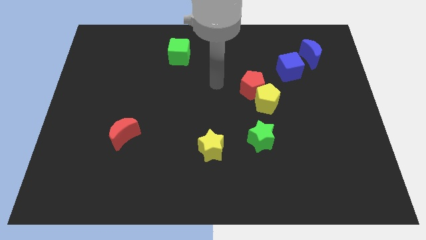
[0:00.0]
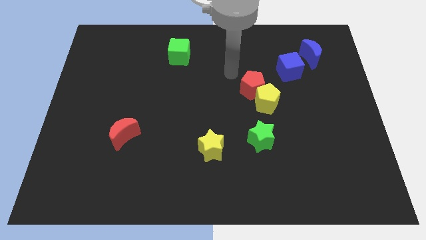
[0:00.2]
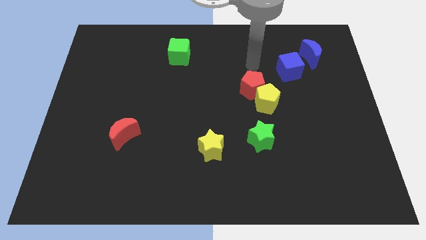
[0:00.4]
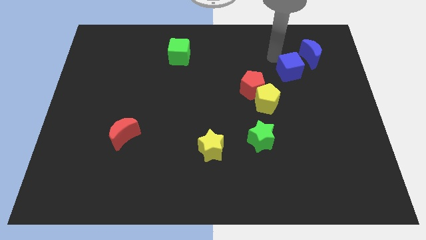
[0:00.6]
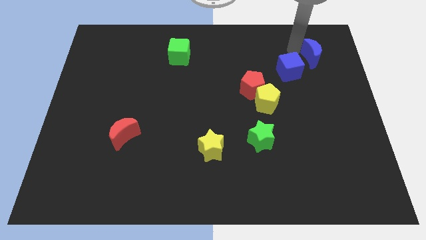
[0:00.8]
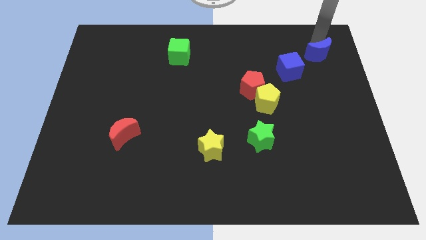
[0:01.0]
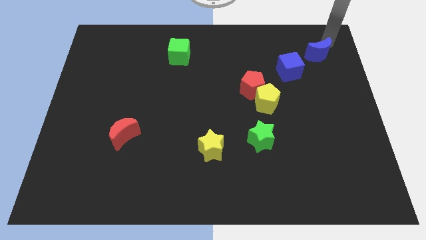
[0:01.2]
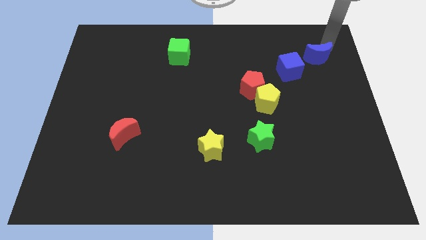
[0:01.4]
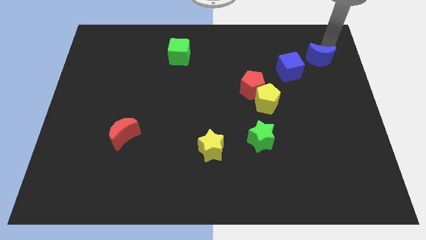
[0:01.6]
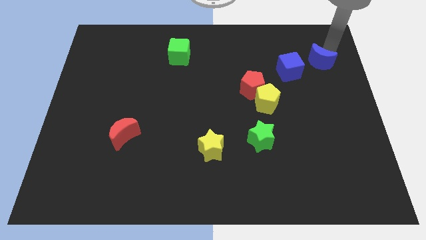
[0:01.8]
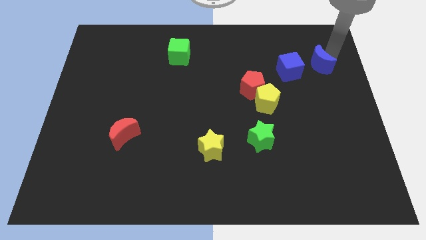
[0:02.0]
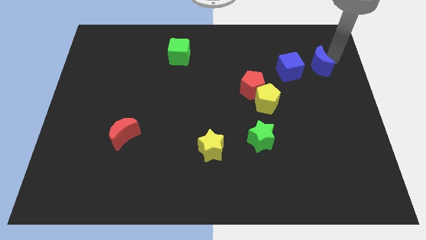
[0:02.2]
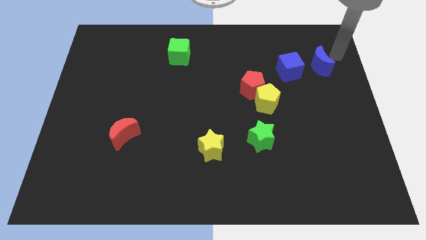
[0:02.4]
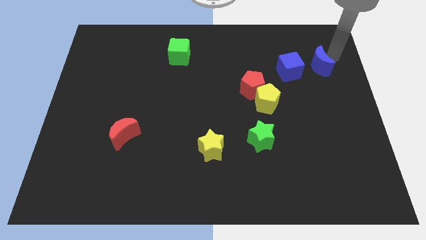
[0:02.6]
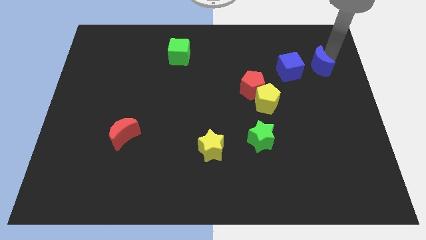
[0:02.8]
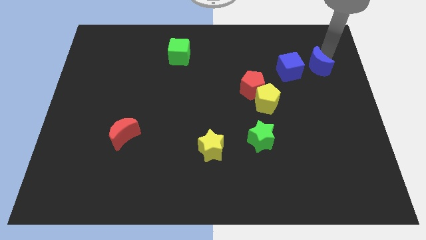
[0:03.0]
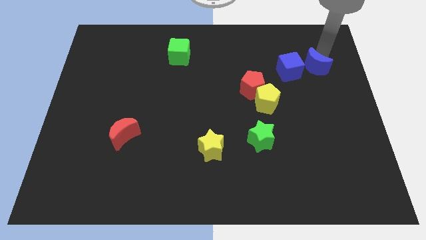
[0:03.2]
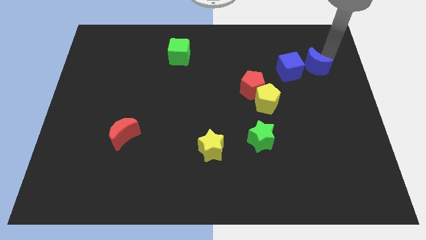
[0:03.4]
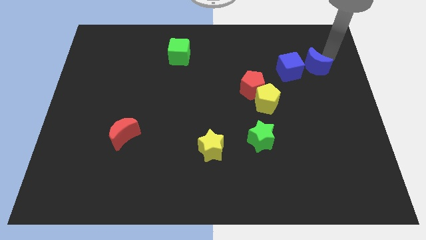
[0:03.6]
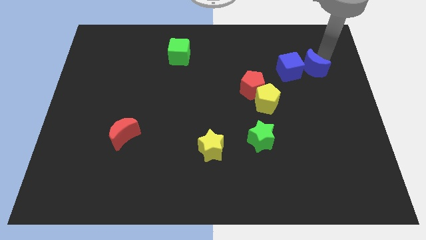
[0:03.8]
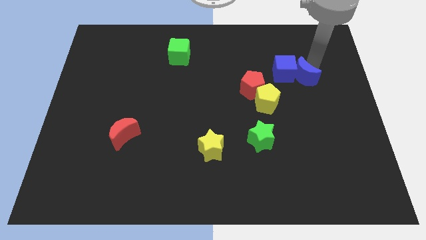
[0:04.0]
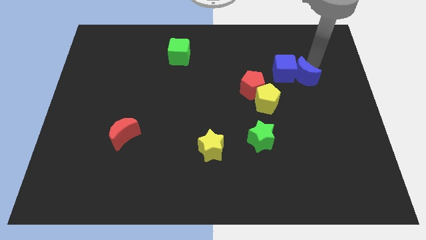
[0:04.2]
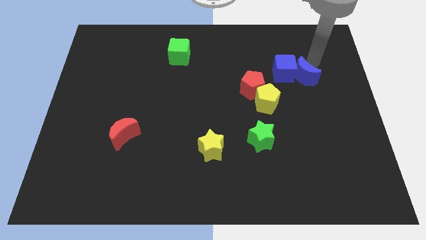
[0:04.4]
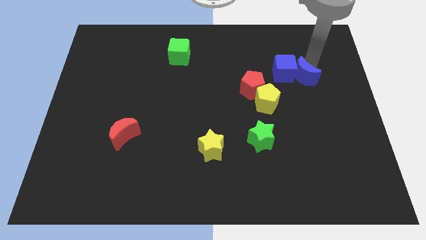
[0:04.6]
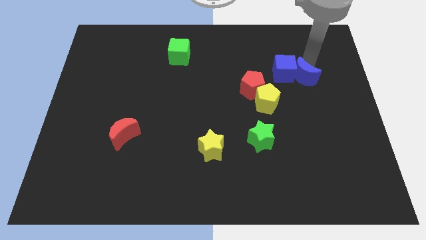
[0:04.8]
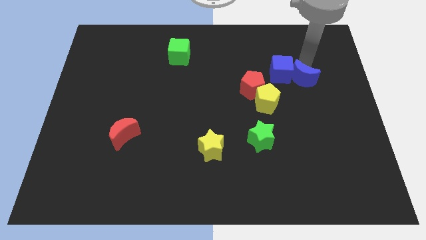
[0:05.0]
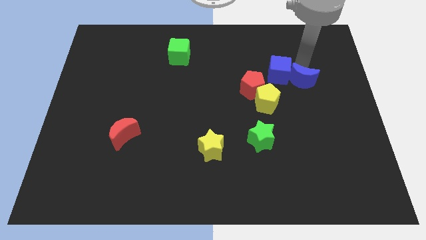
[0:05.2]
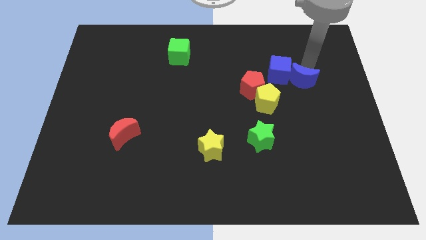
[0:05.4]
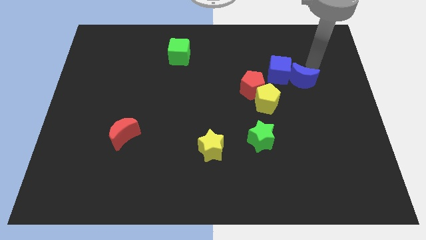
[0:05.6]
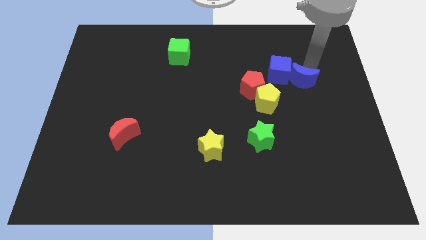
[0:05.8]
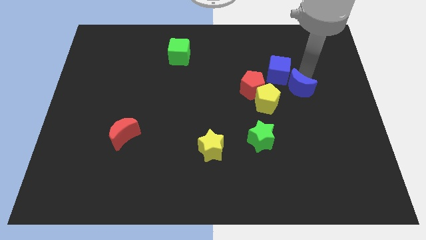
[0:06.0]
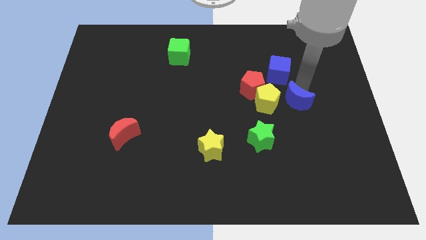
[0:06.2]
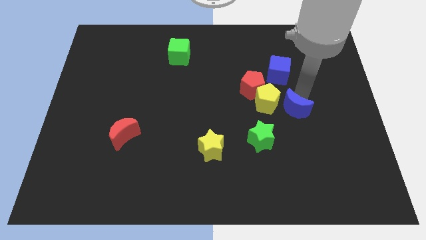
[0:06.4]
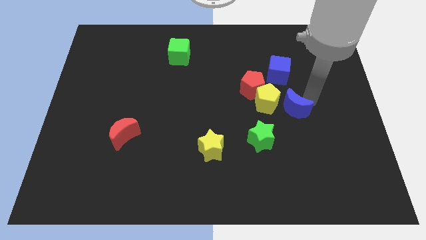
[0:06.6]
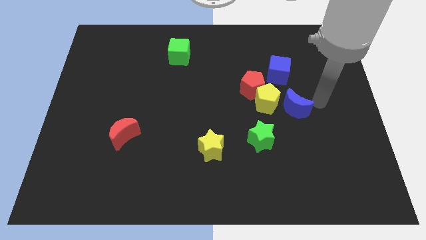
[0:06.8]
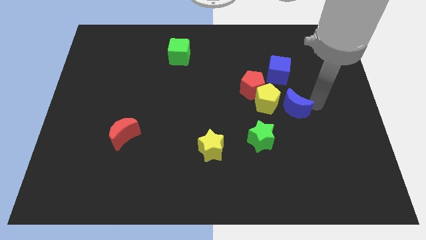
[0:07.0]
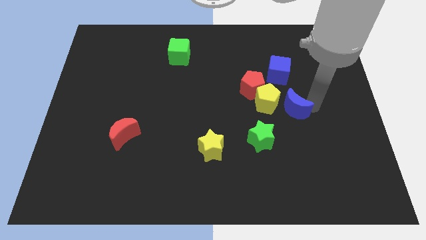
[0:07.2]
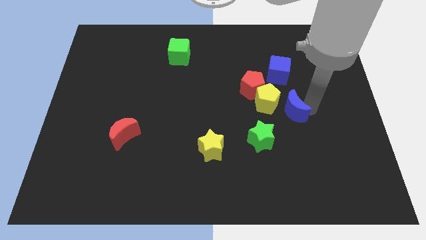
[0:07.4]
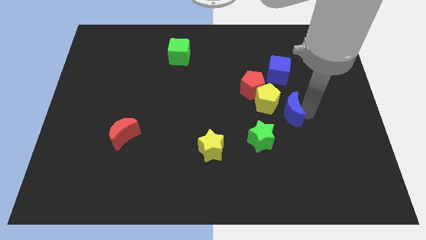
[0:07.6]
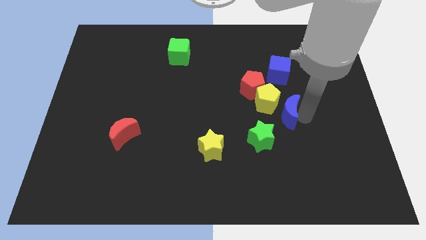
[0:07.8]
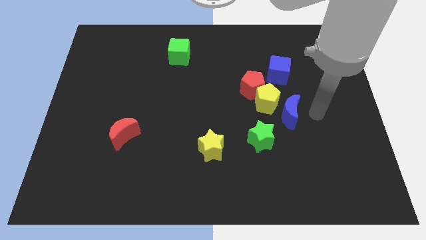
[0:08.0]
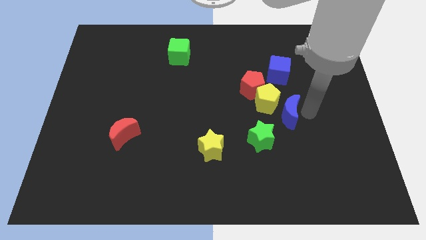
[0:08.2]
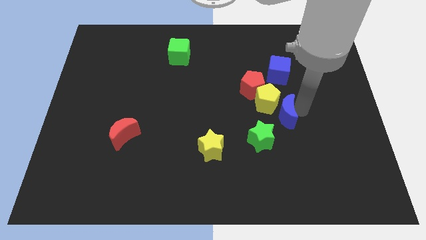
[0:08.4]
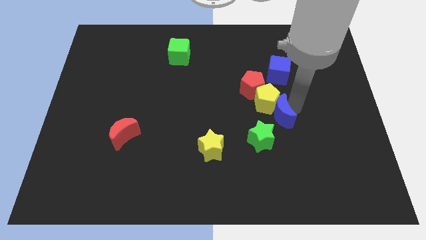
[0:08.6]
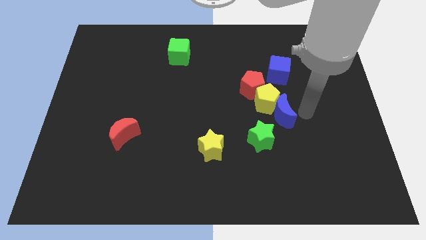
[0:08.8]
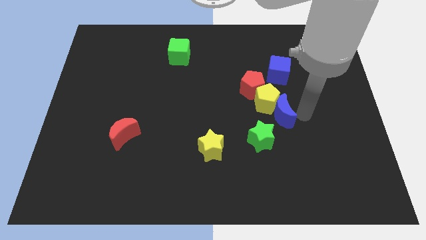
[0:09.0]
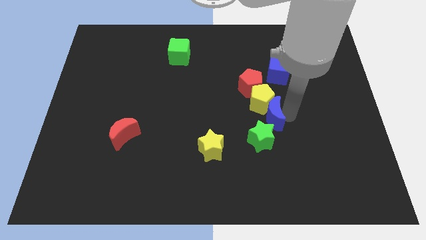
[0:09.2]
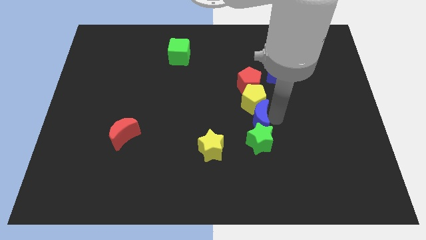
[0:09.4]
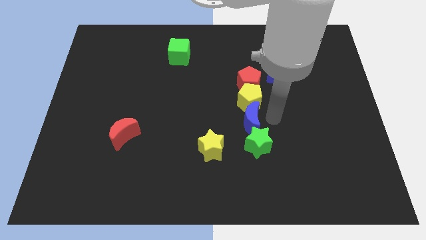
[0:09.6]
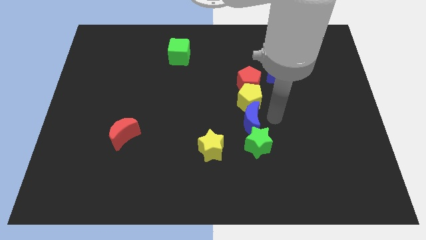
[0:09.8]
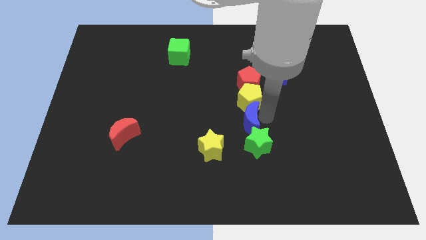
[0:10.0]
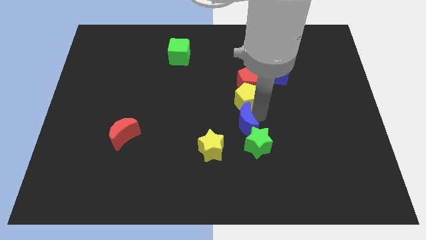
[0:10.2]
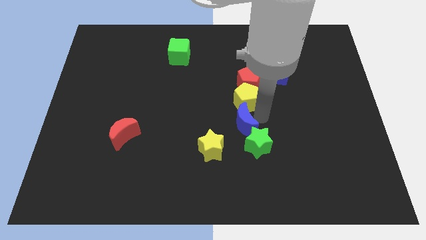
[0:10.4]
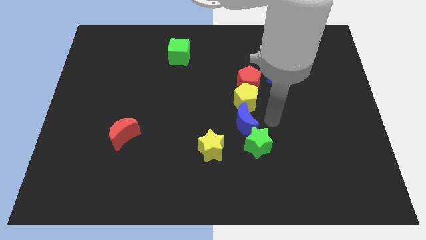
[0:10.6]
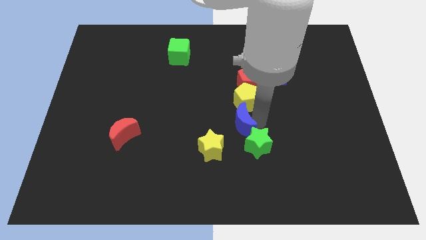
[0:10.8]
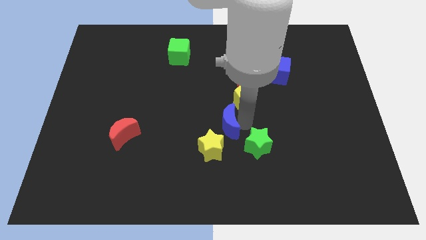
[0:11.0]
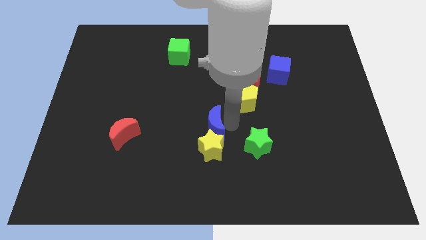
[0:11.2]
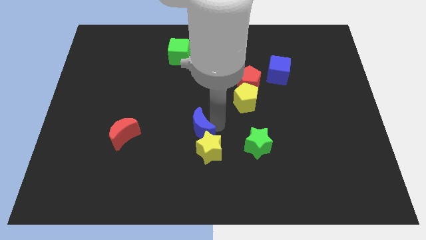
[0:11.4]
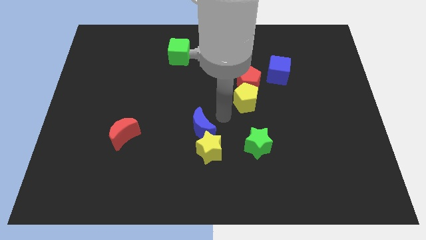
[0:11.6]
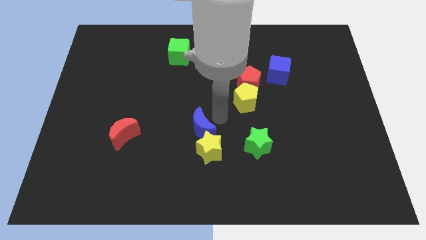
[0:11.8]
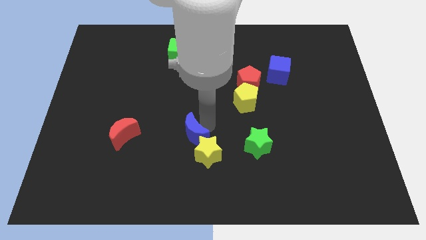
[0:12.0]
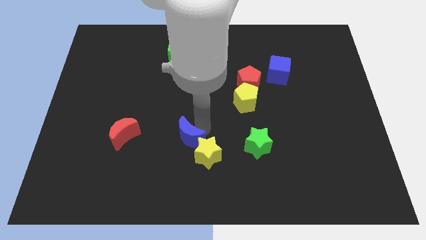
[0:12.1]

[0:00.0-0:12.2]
move the blue moon just left of the yellow star
